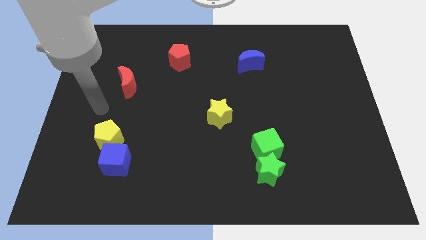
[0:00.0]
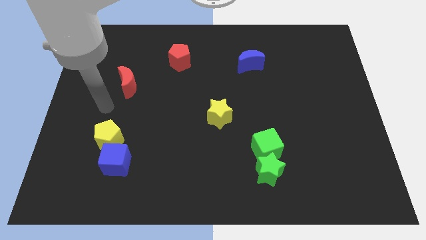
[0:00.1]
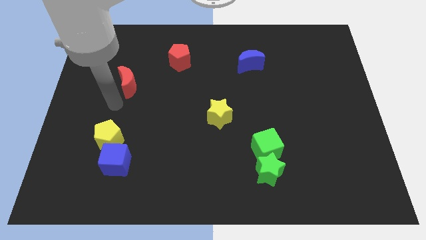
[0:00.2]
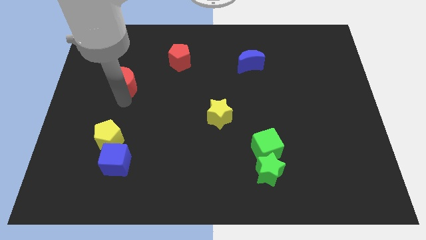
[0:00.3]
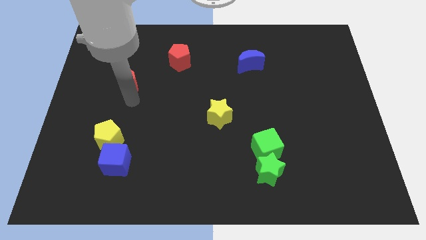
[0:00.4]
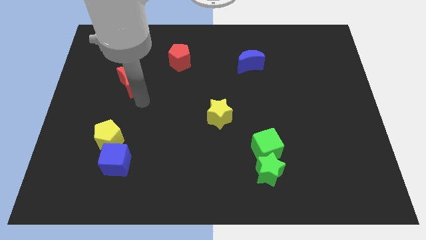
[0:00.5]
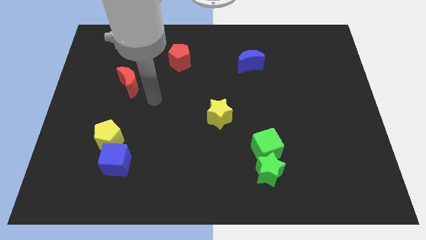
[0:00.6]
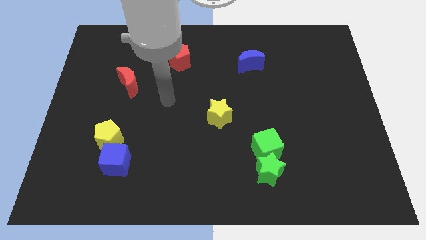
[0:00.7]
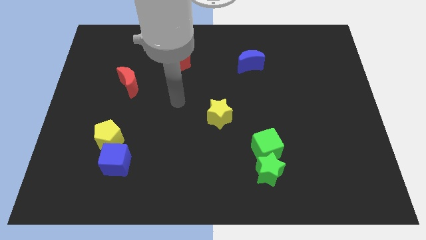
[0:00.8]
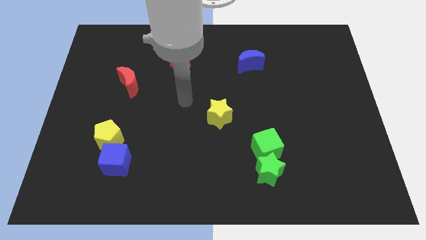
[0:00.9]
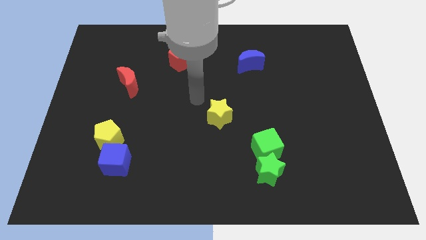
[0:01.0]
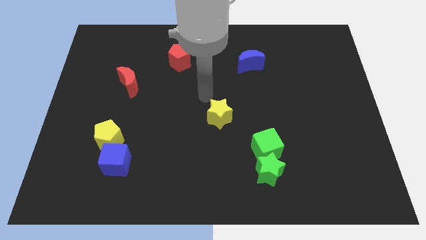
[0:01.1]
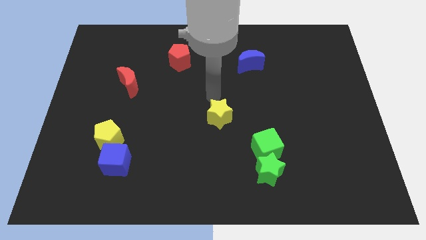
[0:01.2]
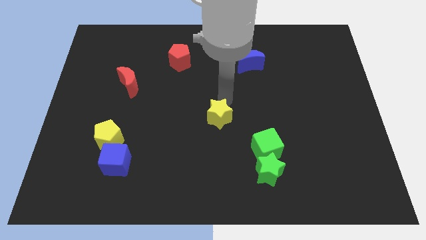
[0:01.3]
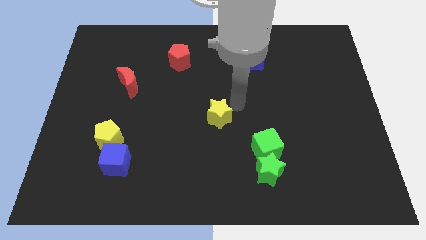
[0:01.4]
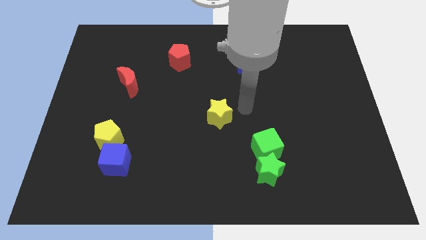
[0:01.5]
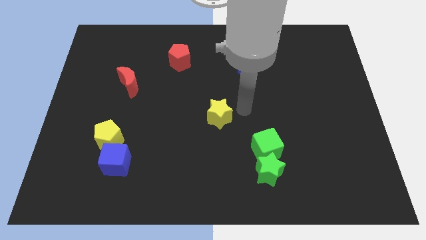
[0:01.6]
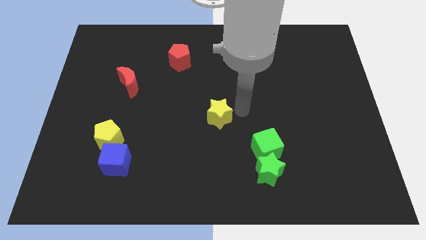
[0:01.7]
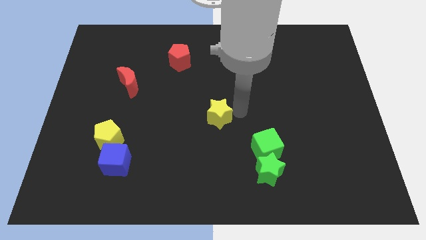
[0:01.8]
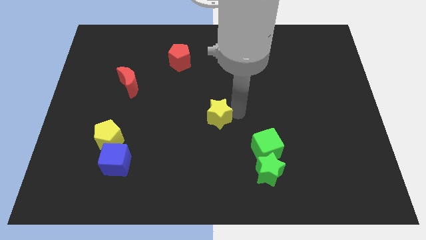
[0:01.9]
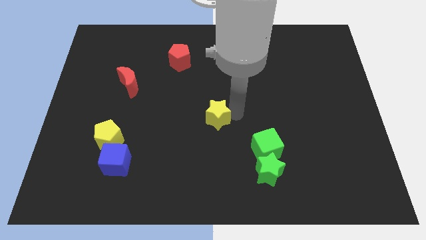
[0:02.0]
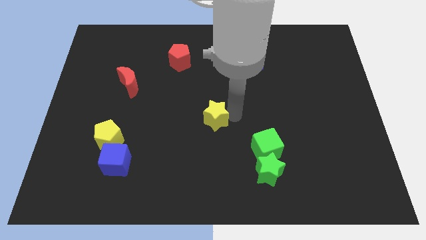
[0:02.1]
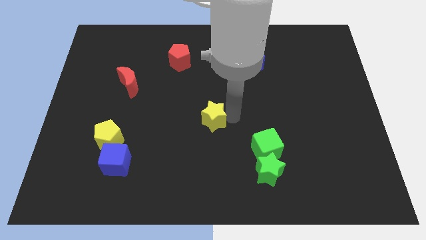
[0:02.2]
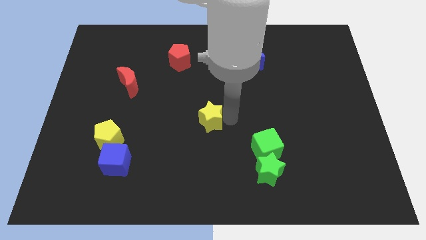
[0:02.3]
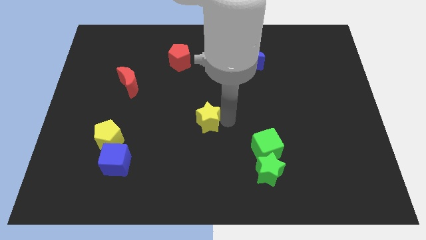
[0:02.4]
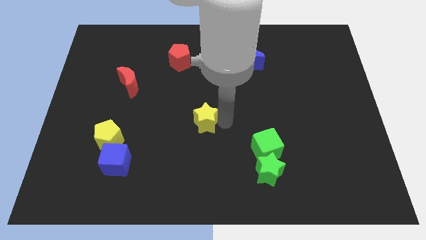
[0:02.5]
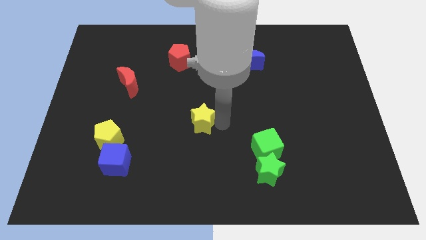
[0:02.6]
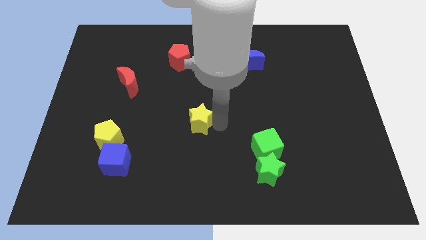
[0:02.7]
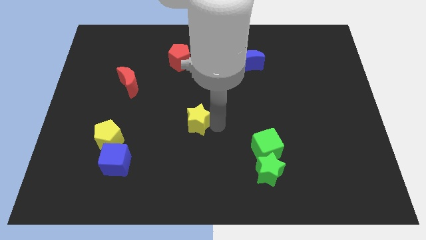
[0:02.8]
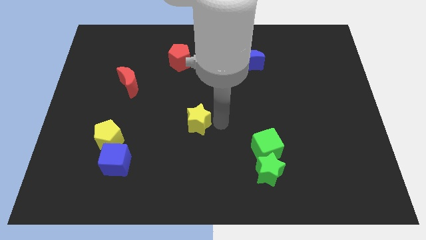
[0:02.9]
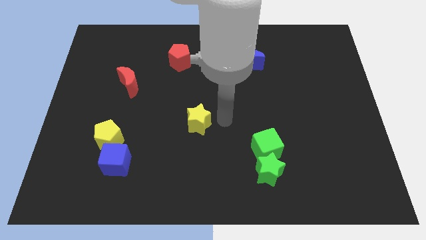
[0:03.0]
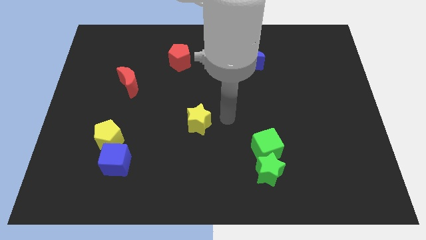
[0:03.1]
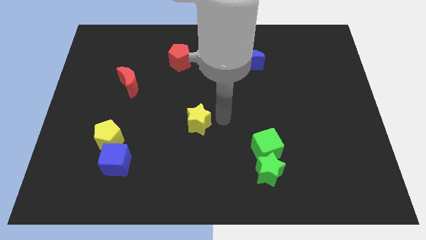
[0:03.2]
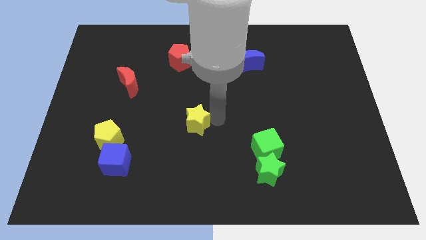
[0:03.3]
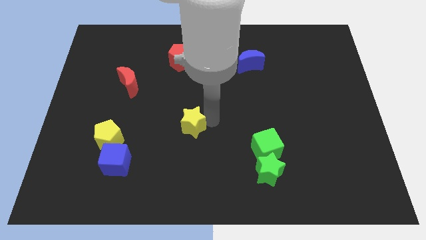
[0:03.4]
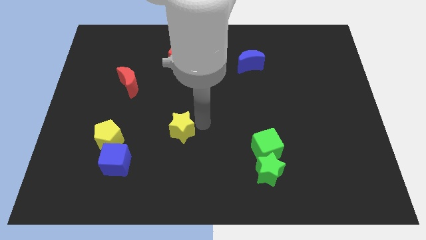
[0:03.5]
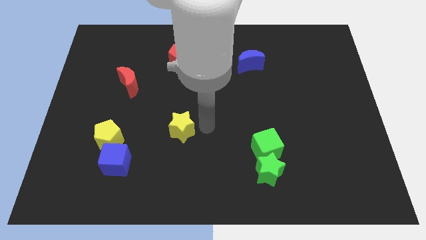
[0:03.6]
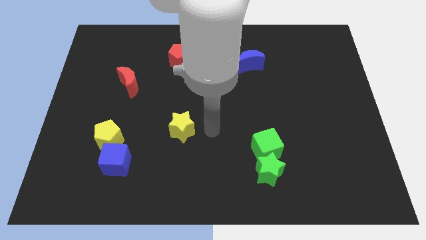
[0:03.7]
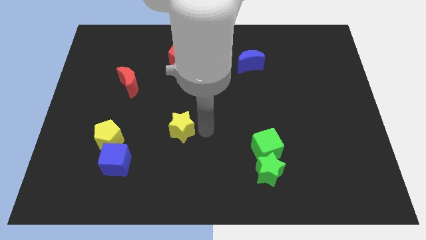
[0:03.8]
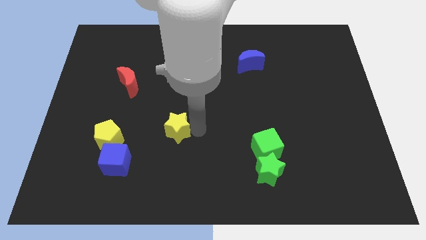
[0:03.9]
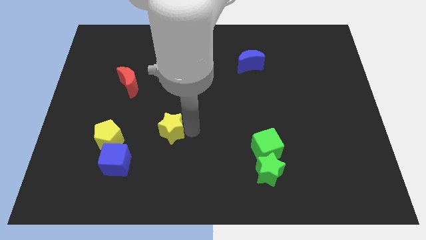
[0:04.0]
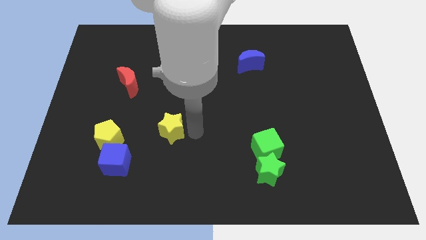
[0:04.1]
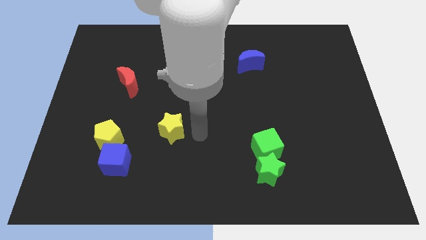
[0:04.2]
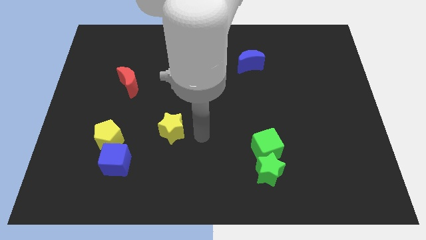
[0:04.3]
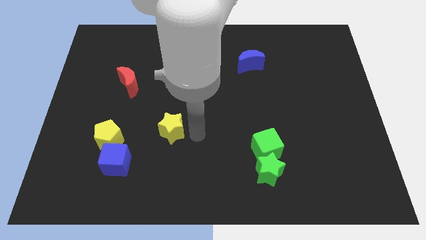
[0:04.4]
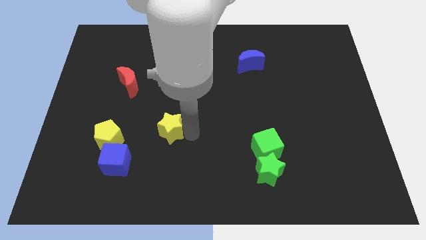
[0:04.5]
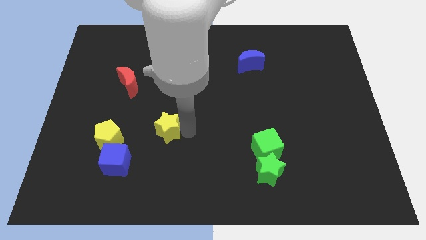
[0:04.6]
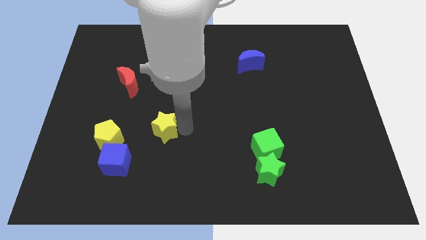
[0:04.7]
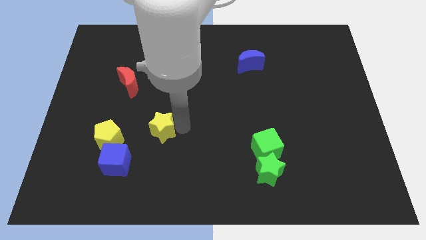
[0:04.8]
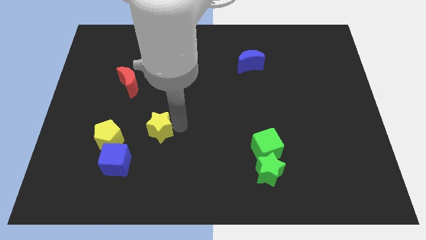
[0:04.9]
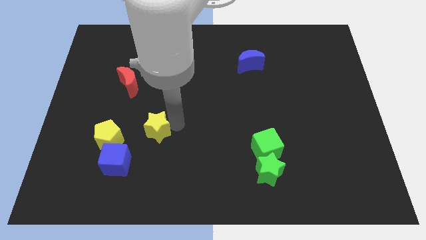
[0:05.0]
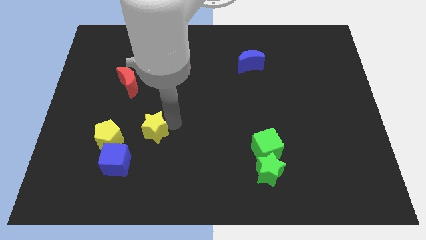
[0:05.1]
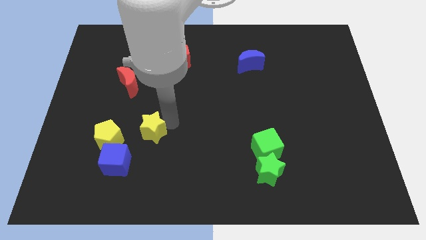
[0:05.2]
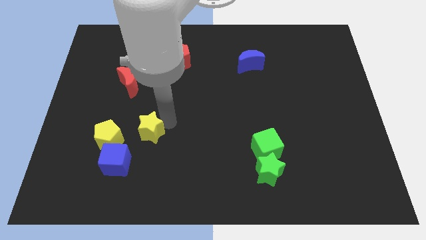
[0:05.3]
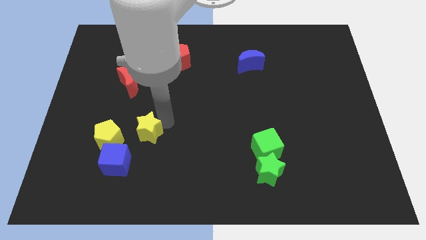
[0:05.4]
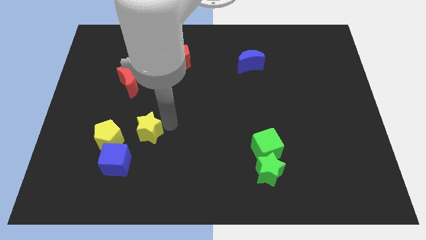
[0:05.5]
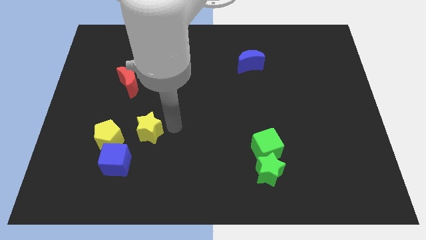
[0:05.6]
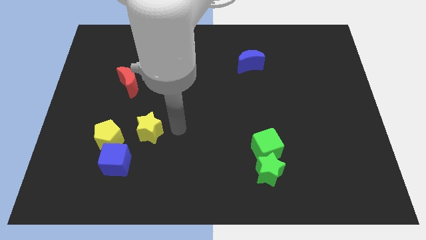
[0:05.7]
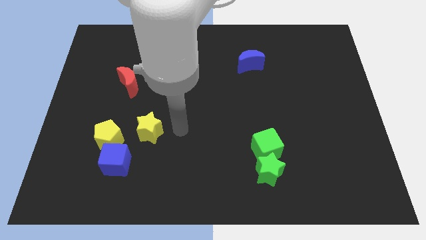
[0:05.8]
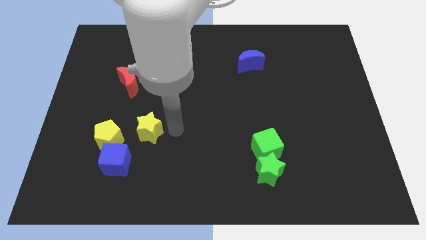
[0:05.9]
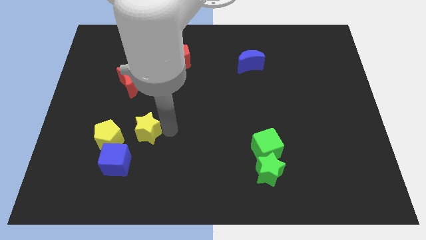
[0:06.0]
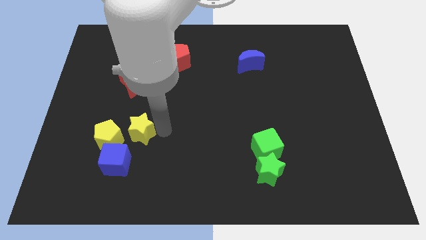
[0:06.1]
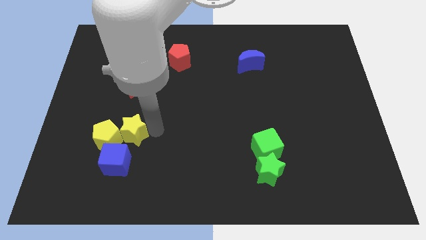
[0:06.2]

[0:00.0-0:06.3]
push the yellow star next to the yellow pentagon

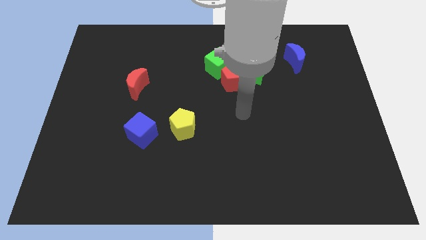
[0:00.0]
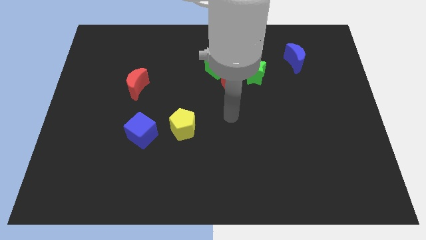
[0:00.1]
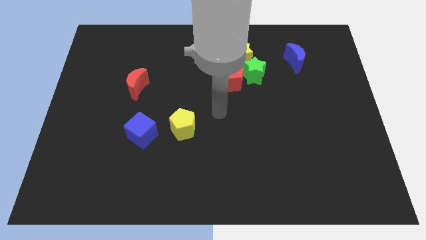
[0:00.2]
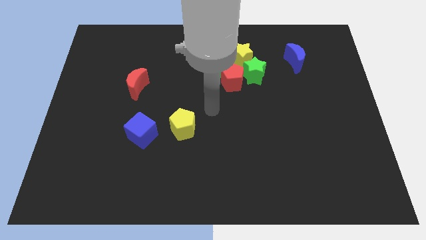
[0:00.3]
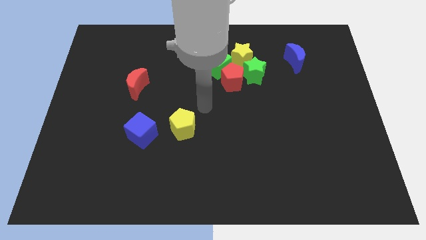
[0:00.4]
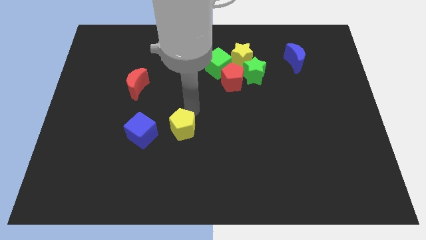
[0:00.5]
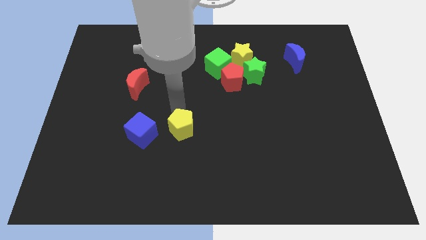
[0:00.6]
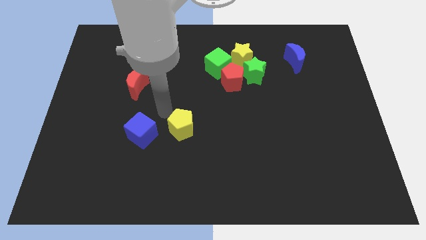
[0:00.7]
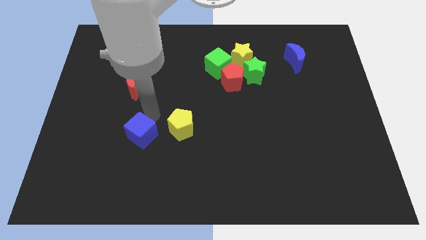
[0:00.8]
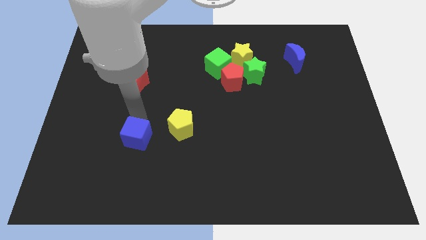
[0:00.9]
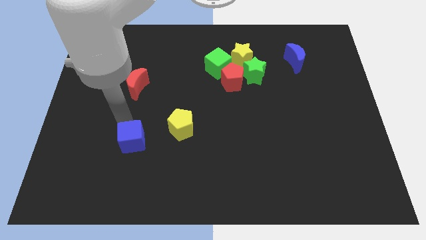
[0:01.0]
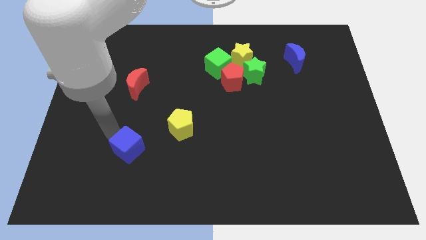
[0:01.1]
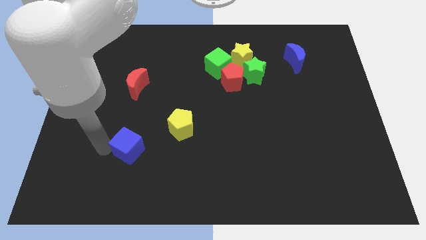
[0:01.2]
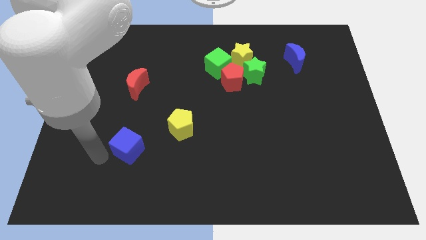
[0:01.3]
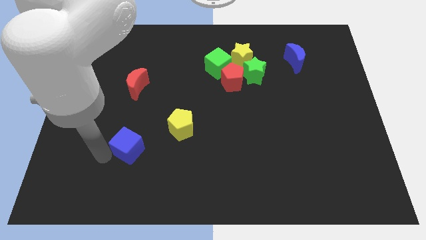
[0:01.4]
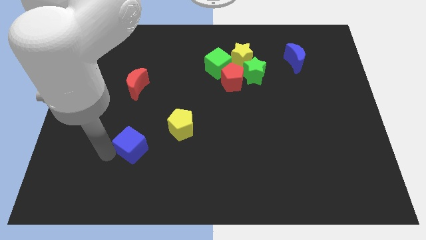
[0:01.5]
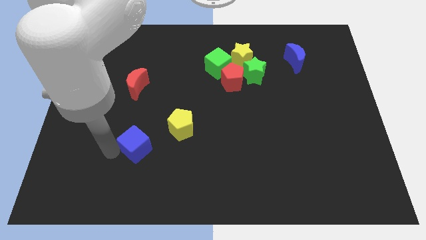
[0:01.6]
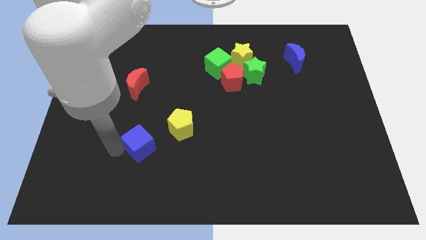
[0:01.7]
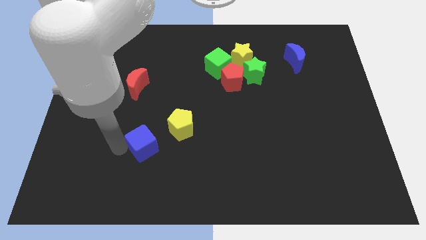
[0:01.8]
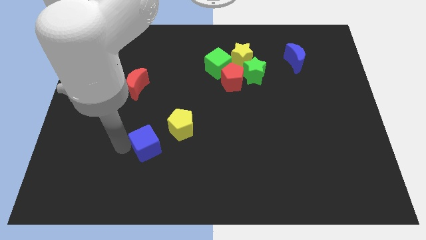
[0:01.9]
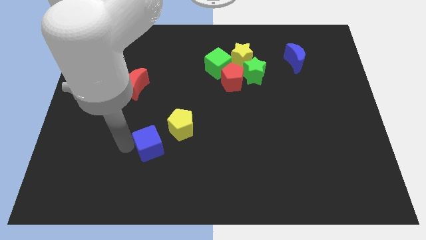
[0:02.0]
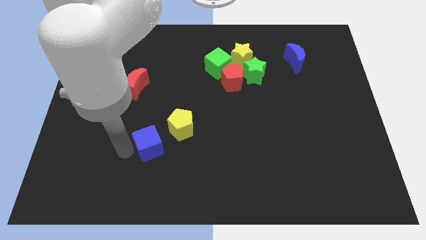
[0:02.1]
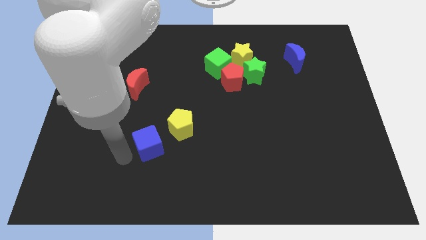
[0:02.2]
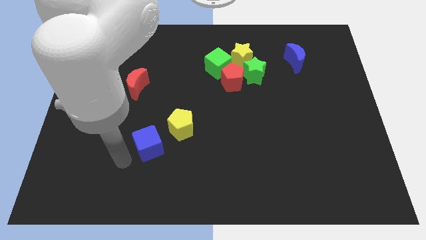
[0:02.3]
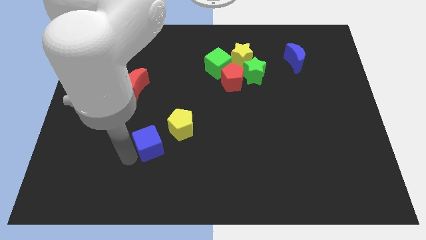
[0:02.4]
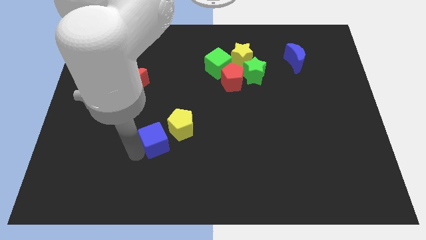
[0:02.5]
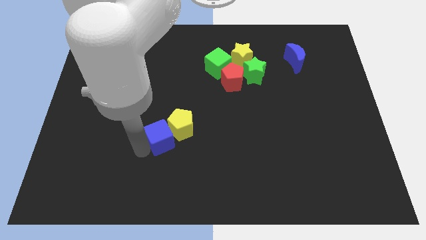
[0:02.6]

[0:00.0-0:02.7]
move the blue cube to the yellow pentagon
